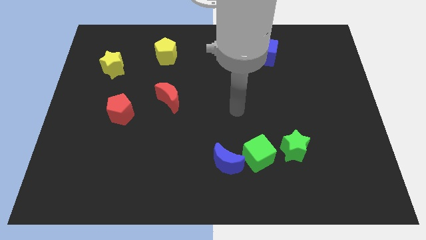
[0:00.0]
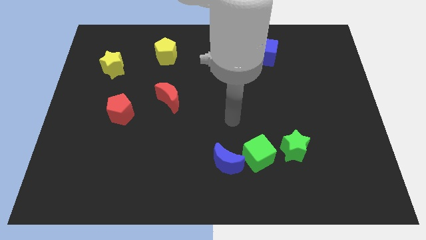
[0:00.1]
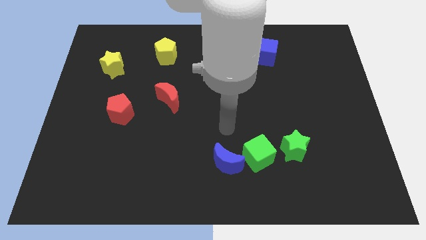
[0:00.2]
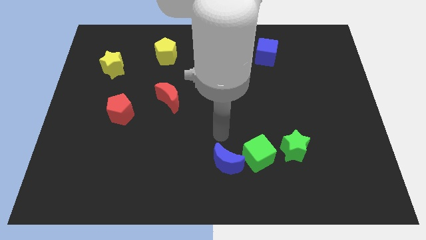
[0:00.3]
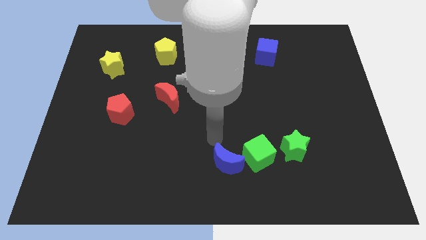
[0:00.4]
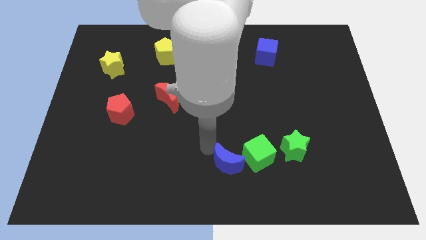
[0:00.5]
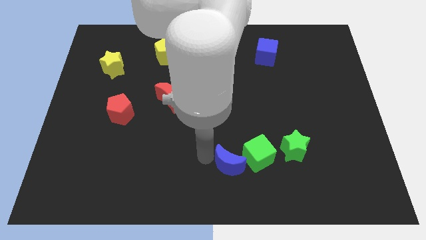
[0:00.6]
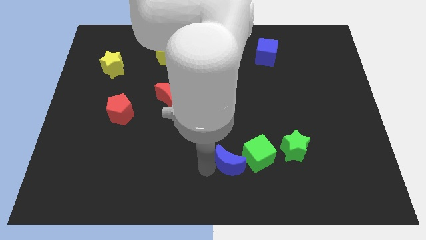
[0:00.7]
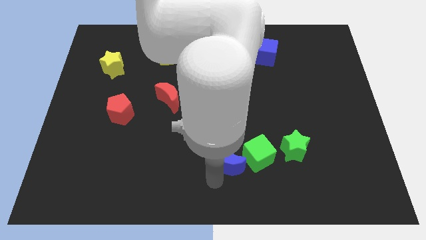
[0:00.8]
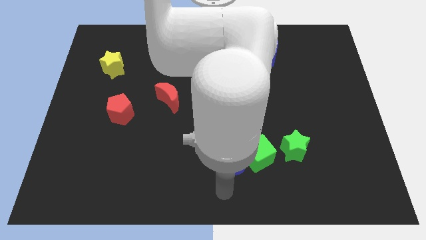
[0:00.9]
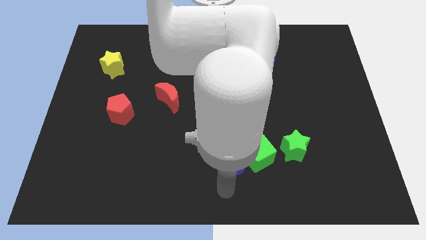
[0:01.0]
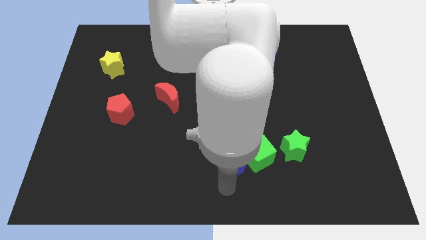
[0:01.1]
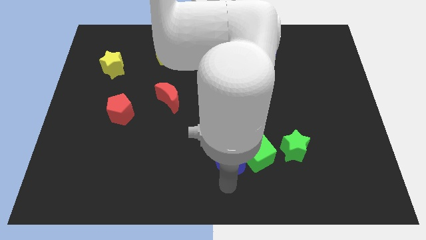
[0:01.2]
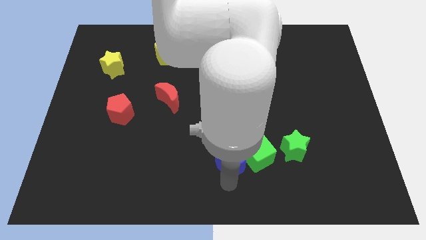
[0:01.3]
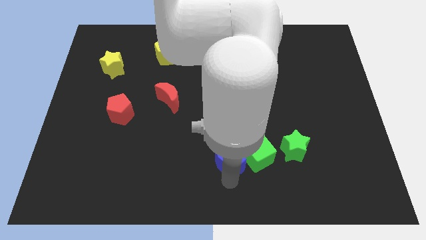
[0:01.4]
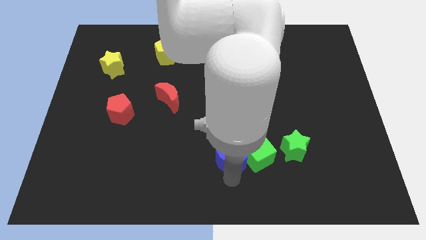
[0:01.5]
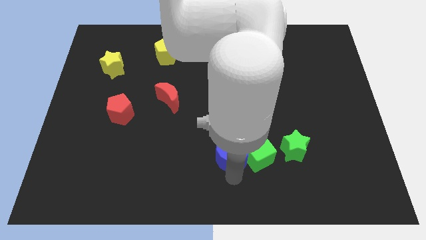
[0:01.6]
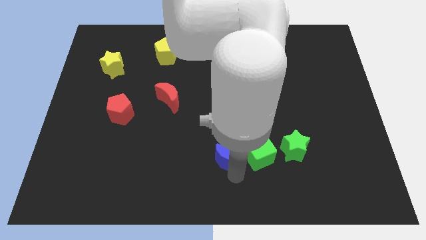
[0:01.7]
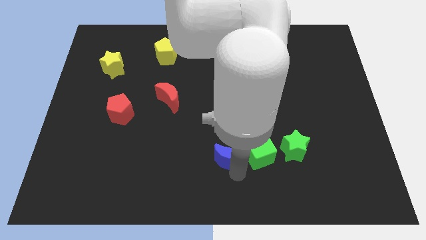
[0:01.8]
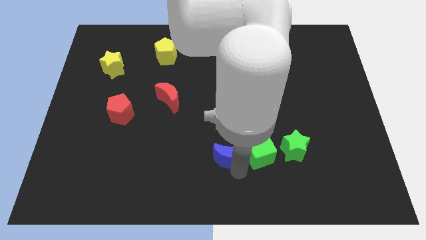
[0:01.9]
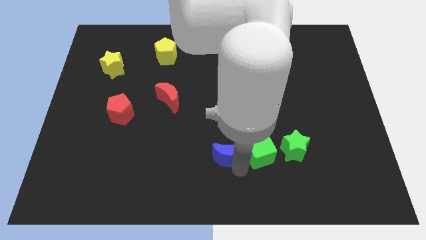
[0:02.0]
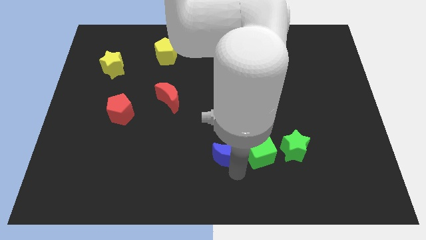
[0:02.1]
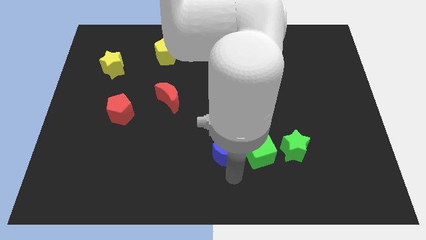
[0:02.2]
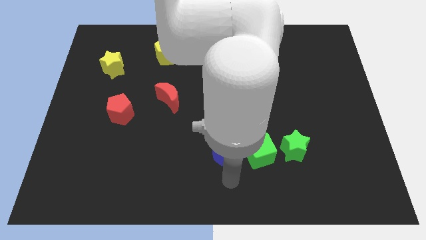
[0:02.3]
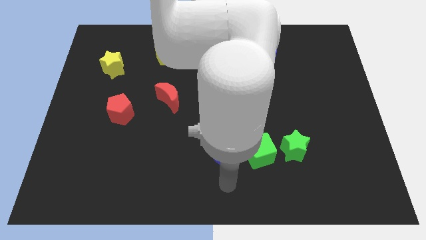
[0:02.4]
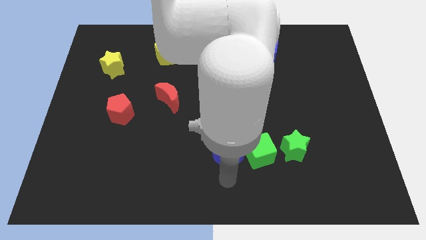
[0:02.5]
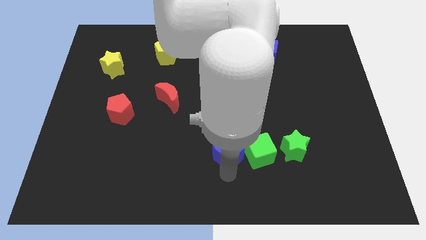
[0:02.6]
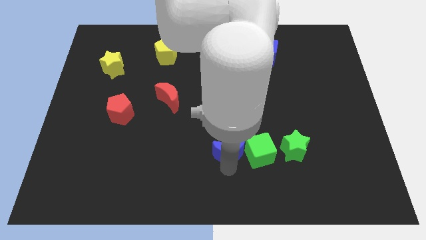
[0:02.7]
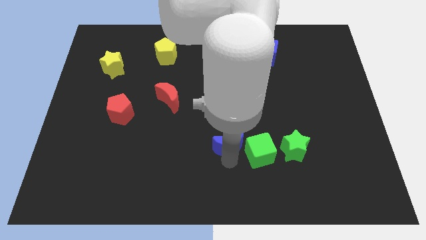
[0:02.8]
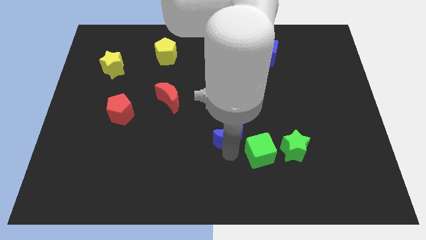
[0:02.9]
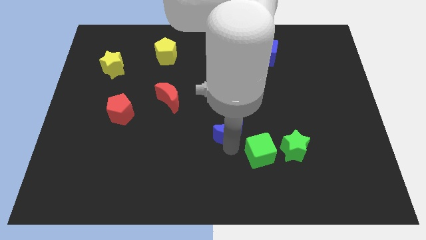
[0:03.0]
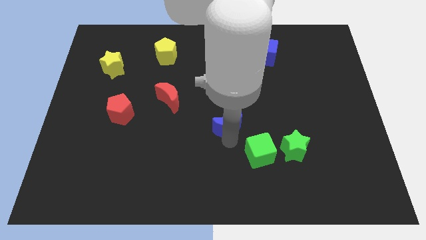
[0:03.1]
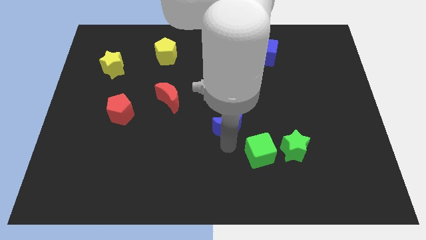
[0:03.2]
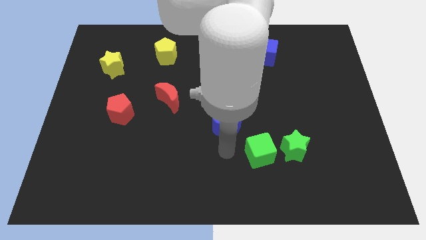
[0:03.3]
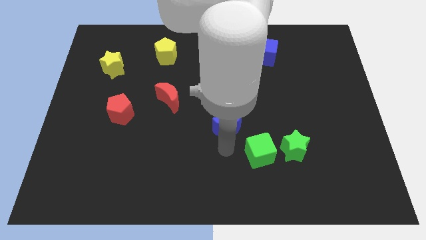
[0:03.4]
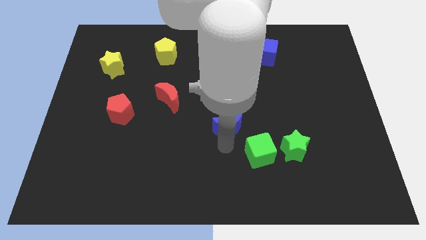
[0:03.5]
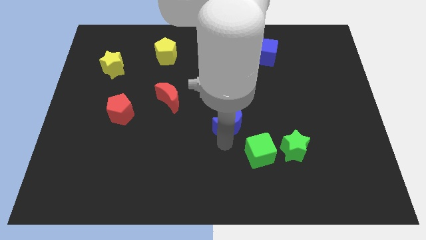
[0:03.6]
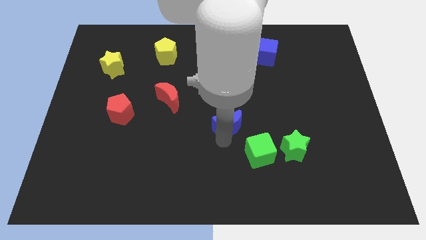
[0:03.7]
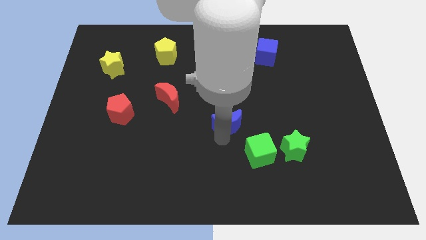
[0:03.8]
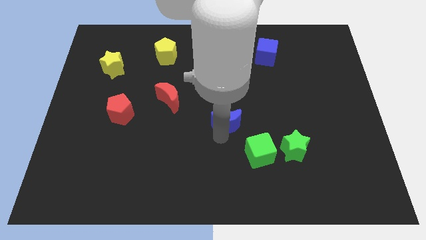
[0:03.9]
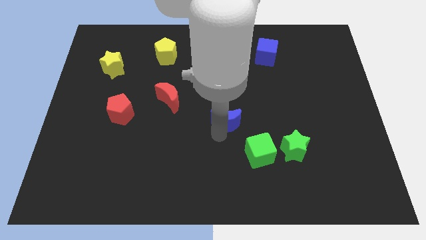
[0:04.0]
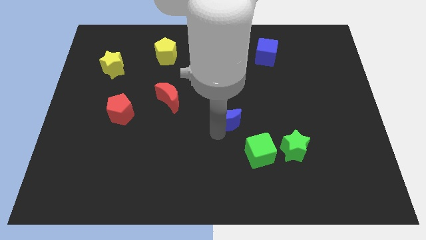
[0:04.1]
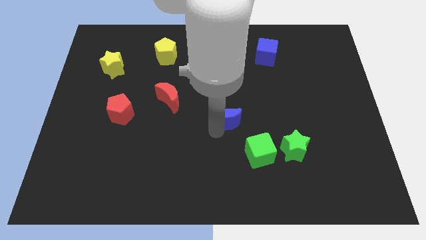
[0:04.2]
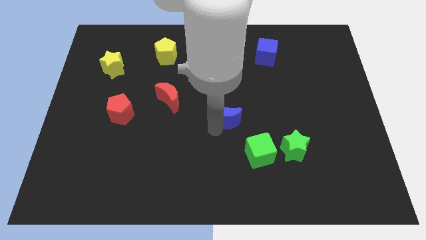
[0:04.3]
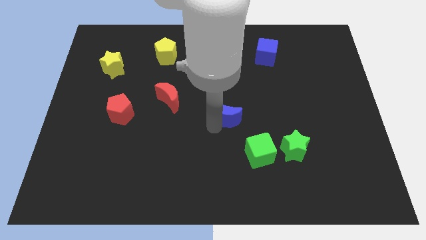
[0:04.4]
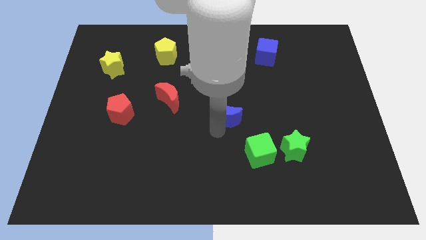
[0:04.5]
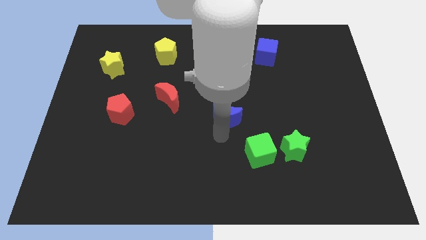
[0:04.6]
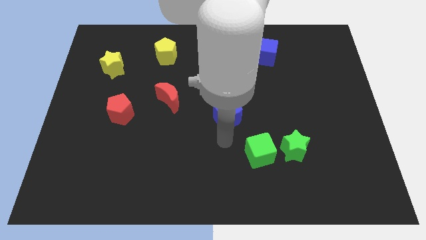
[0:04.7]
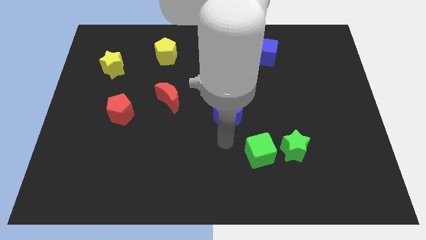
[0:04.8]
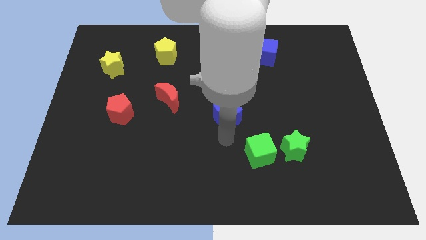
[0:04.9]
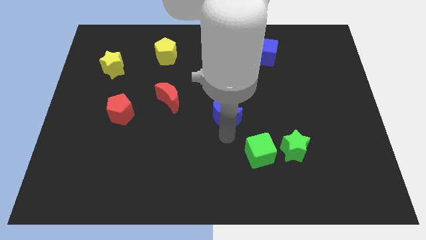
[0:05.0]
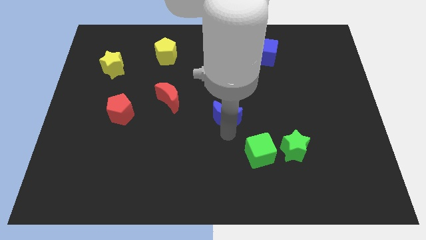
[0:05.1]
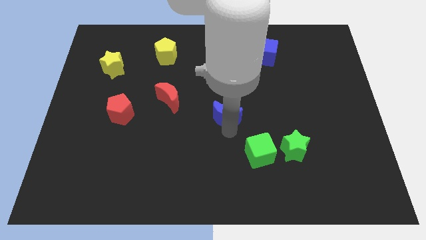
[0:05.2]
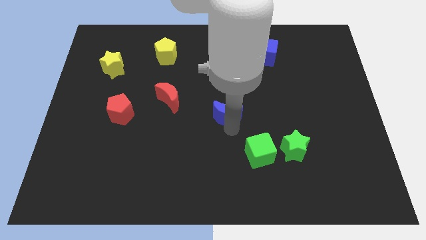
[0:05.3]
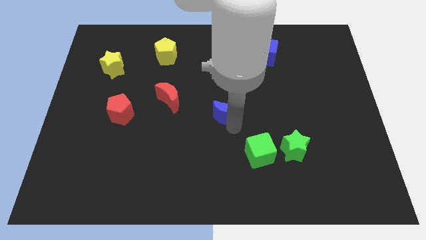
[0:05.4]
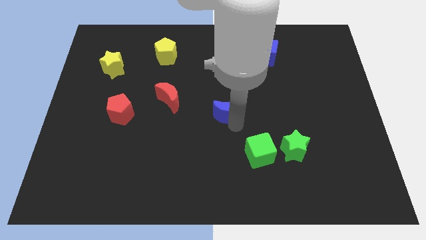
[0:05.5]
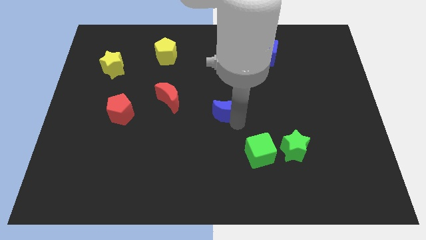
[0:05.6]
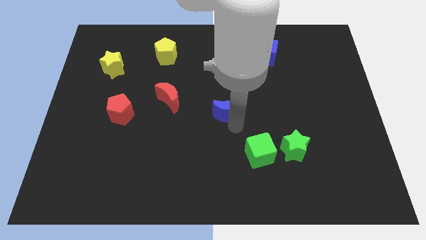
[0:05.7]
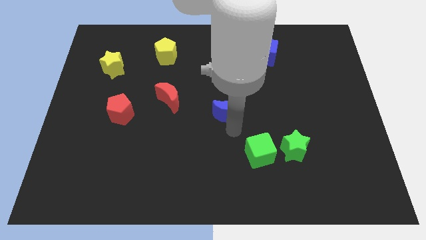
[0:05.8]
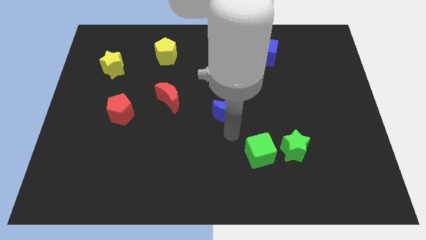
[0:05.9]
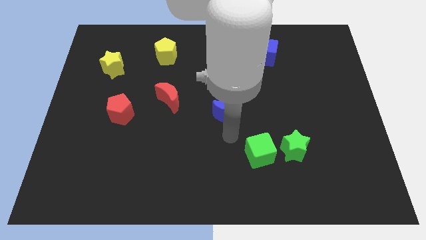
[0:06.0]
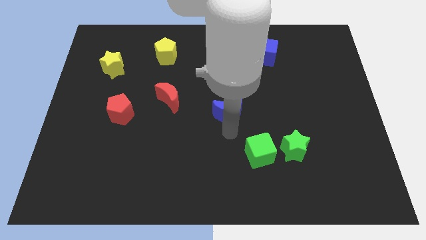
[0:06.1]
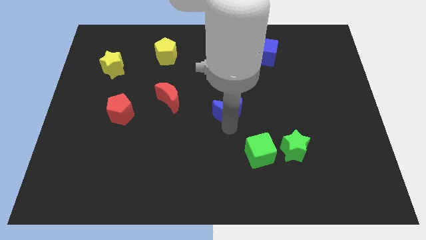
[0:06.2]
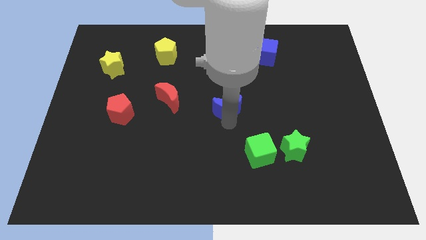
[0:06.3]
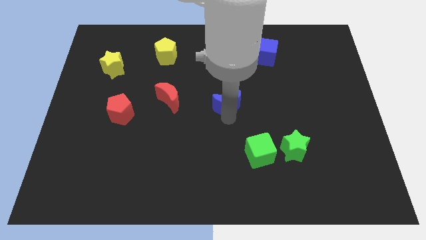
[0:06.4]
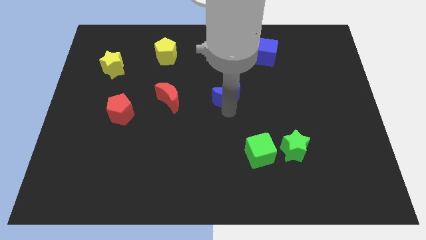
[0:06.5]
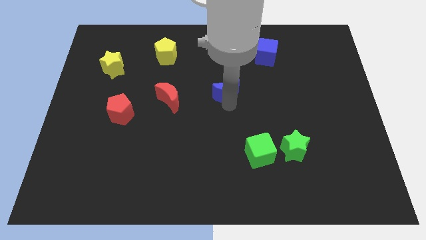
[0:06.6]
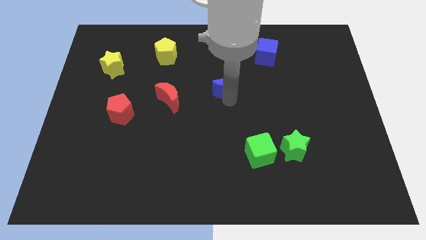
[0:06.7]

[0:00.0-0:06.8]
slide the blue moon upwards

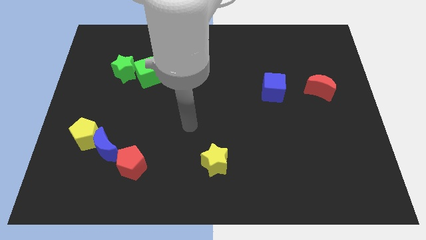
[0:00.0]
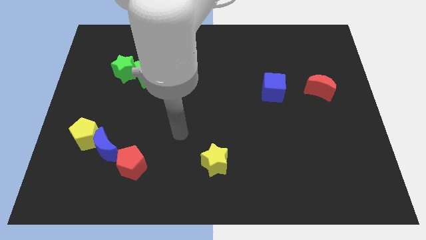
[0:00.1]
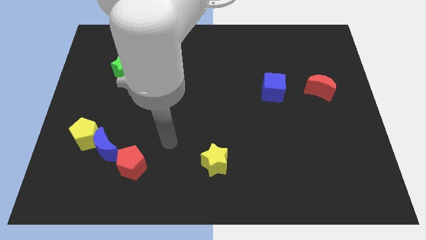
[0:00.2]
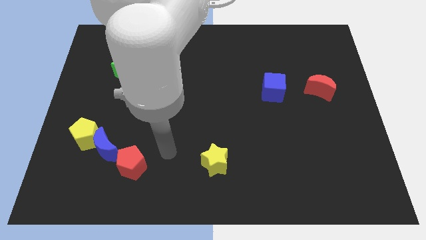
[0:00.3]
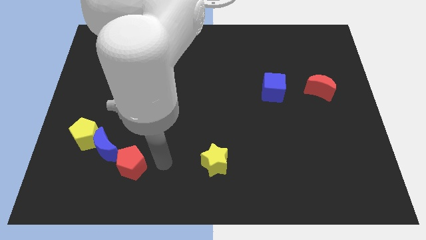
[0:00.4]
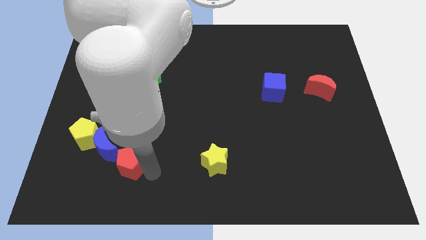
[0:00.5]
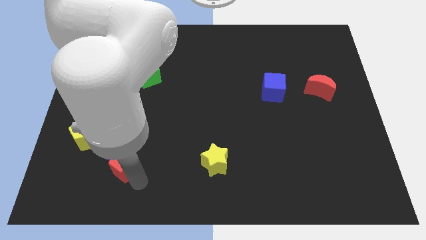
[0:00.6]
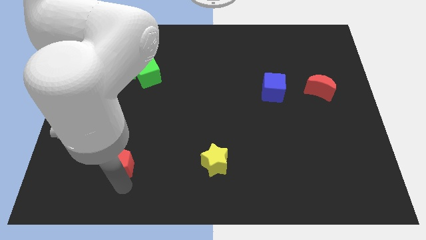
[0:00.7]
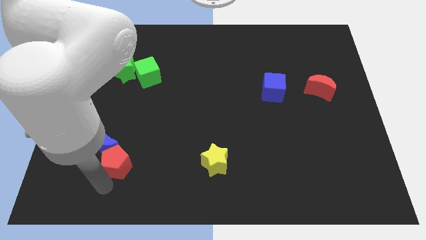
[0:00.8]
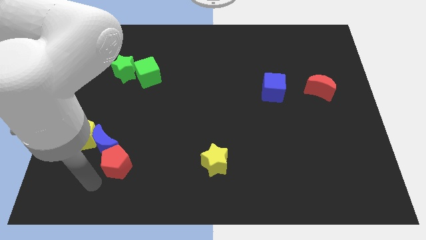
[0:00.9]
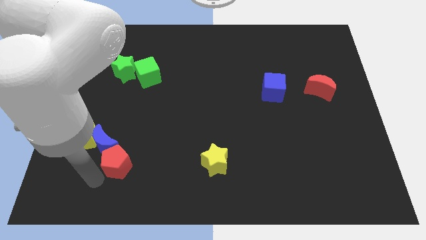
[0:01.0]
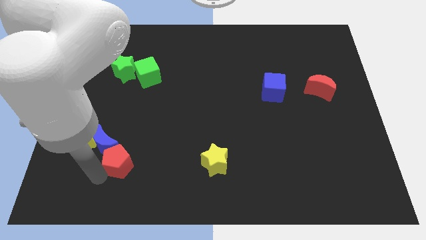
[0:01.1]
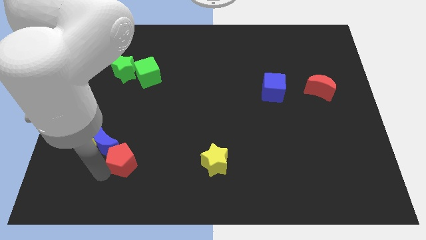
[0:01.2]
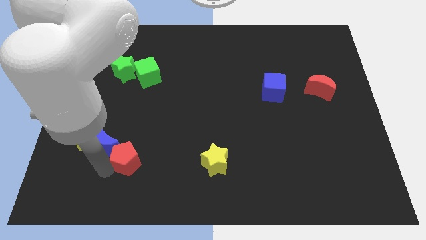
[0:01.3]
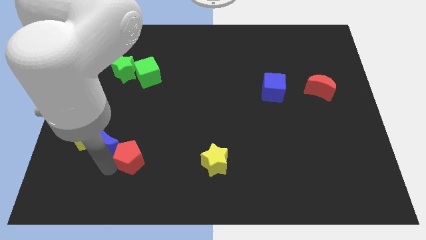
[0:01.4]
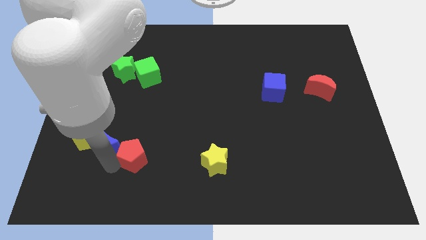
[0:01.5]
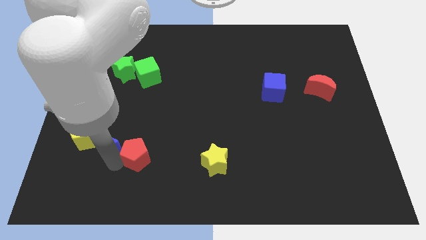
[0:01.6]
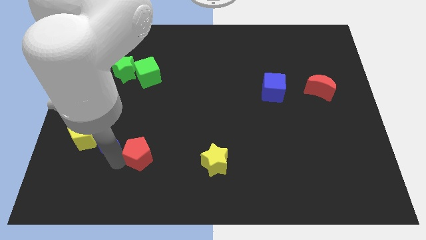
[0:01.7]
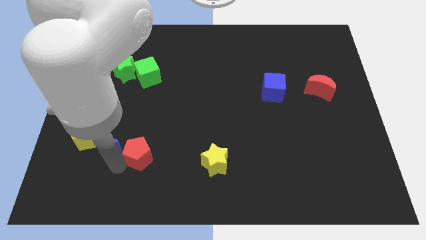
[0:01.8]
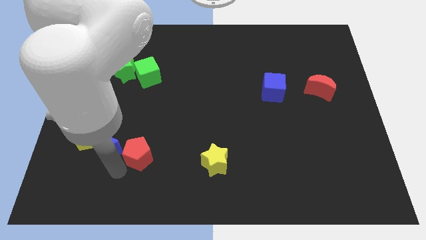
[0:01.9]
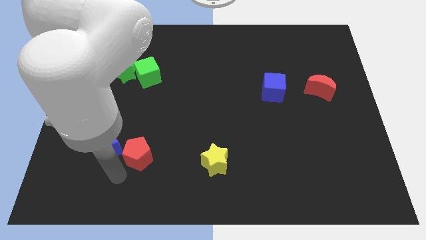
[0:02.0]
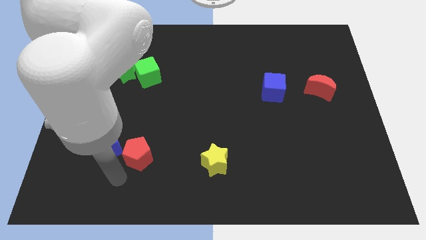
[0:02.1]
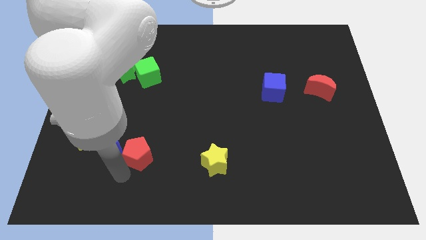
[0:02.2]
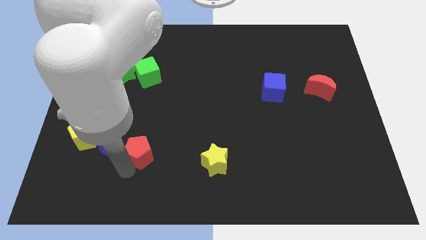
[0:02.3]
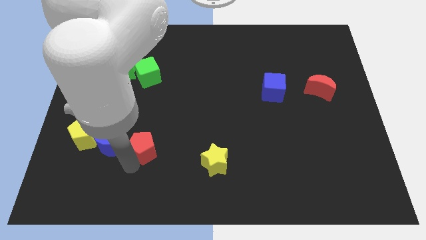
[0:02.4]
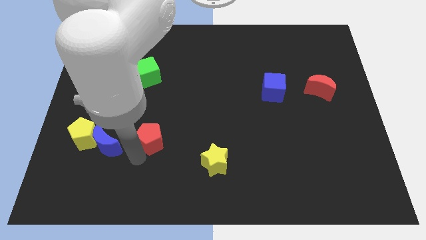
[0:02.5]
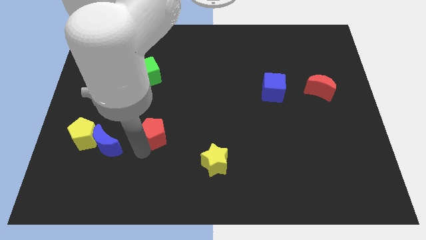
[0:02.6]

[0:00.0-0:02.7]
move the red pentagon a bit diagonally up and right
